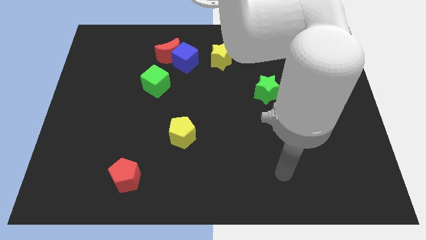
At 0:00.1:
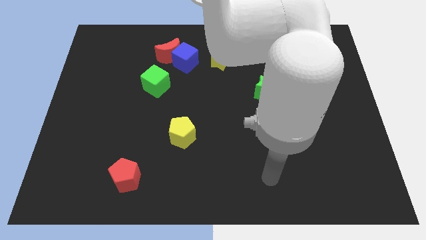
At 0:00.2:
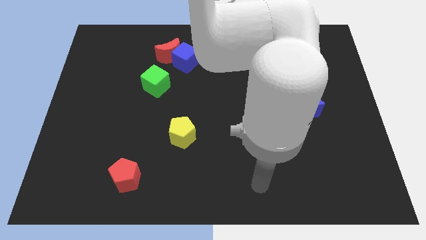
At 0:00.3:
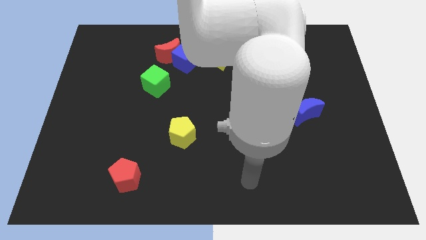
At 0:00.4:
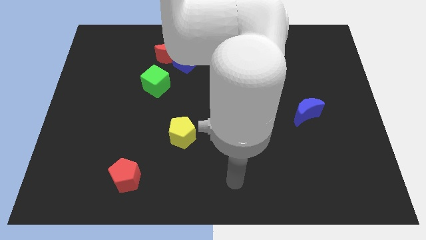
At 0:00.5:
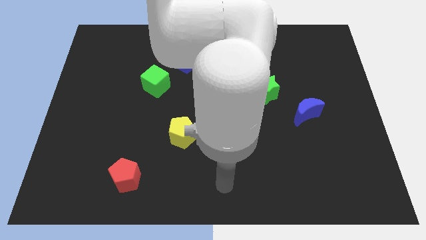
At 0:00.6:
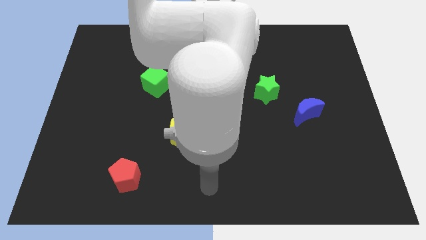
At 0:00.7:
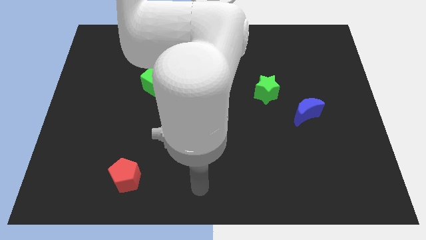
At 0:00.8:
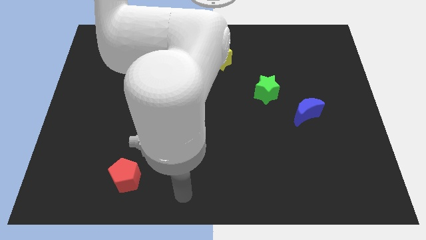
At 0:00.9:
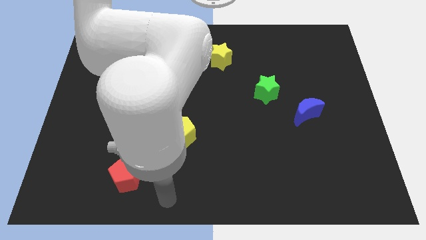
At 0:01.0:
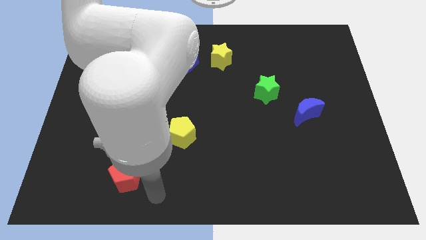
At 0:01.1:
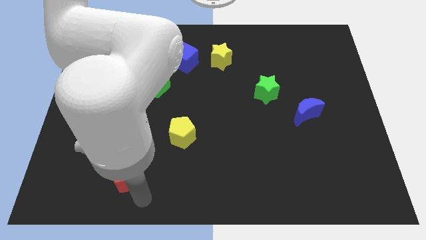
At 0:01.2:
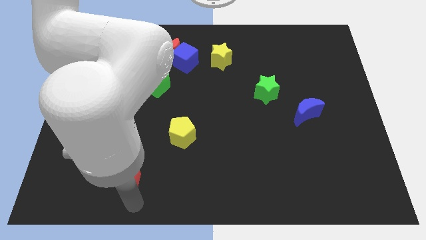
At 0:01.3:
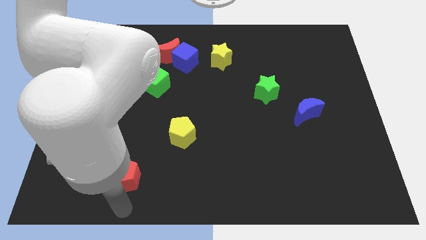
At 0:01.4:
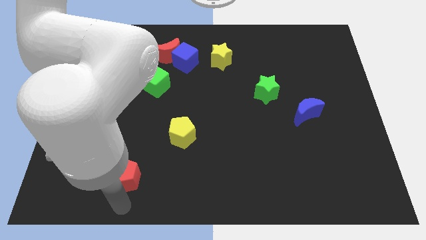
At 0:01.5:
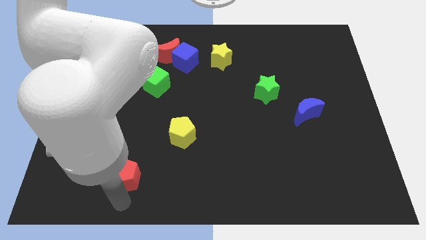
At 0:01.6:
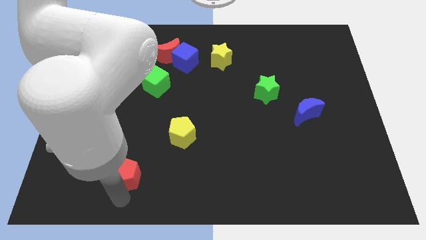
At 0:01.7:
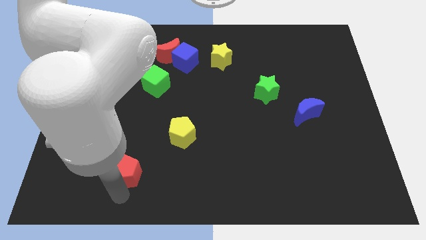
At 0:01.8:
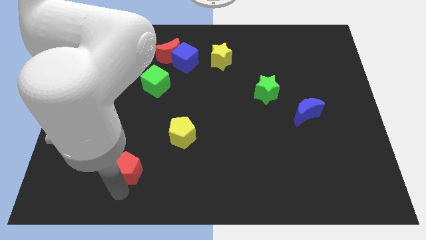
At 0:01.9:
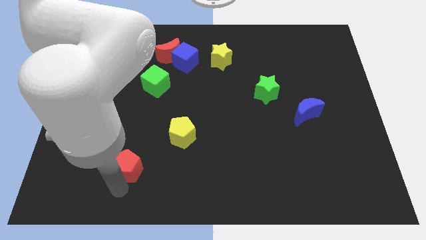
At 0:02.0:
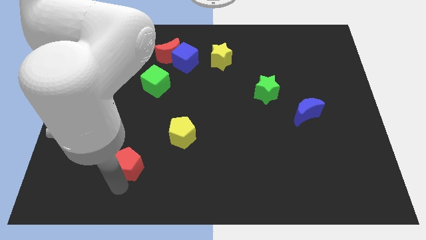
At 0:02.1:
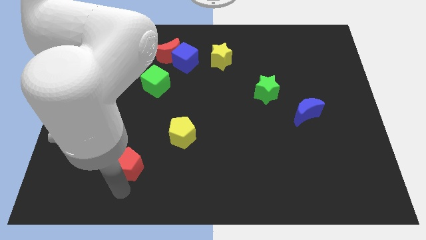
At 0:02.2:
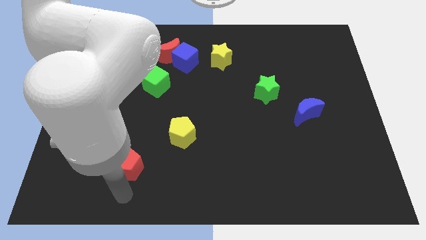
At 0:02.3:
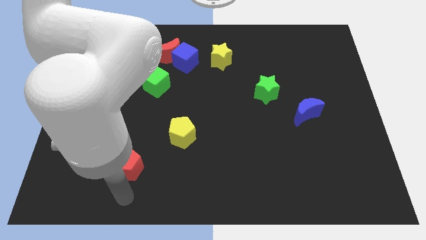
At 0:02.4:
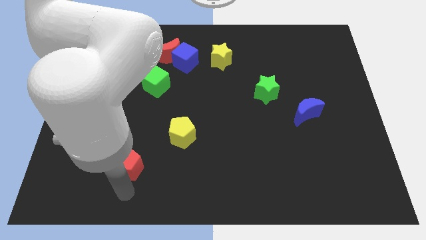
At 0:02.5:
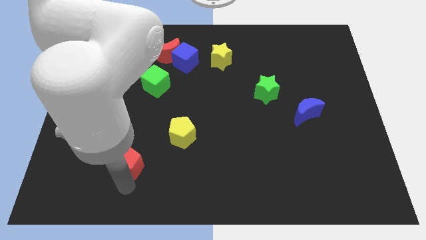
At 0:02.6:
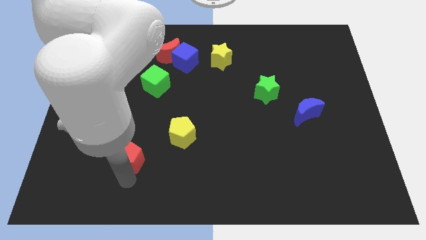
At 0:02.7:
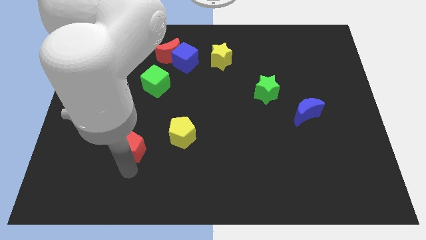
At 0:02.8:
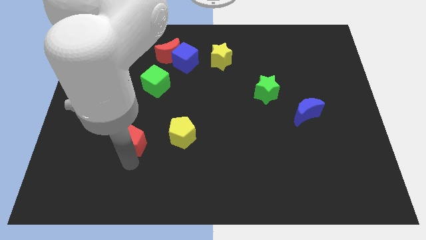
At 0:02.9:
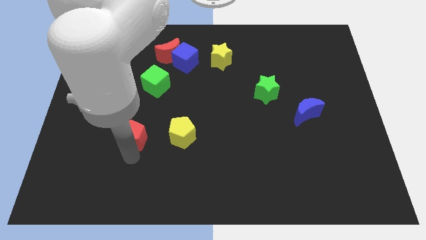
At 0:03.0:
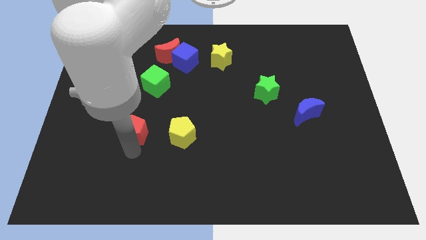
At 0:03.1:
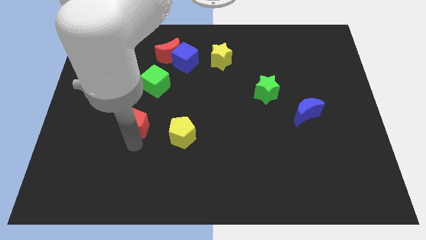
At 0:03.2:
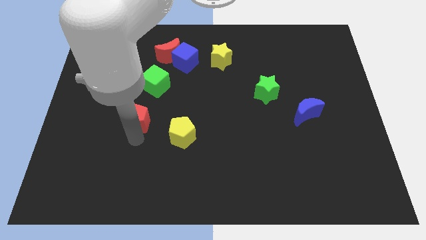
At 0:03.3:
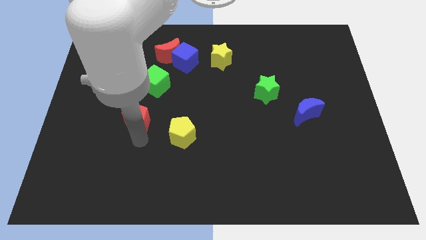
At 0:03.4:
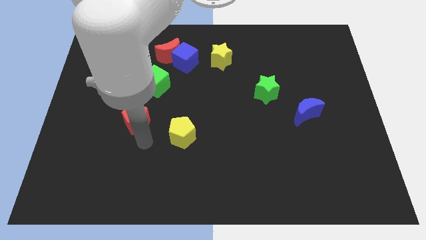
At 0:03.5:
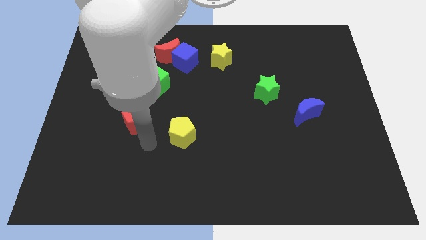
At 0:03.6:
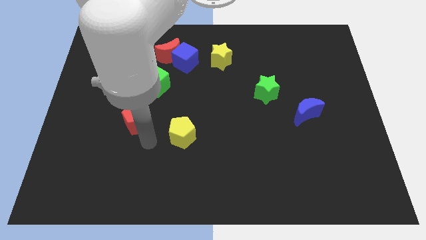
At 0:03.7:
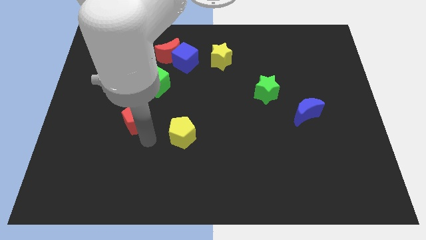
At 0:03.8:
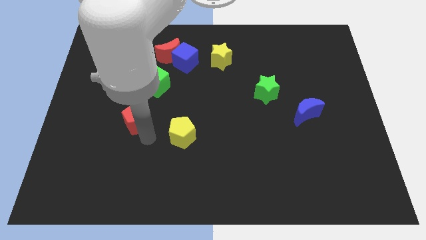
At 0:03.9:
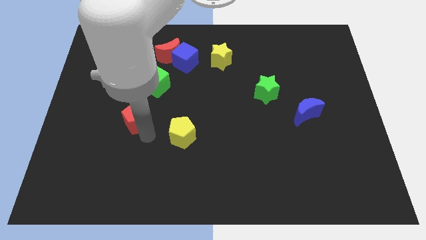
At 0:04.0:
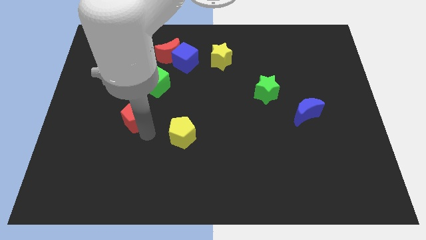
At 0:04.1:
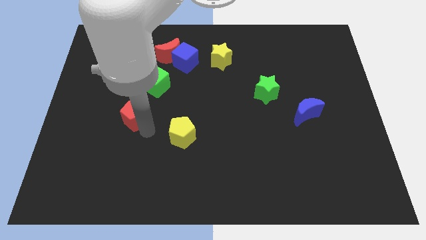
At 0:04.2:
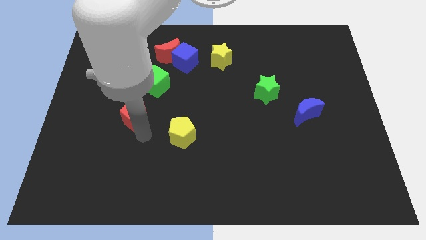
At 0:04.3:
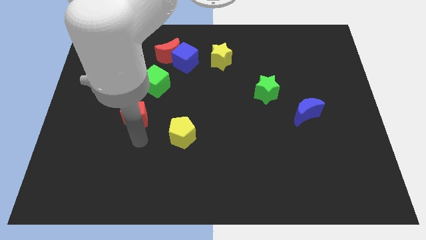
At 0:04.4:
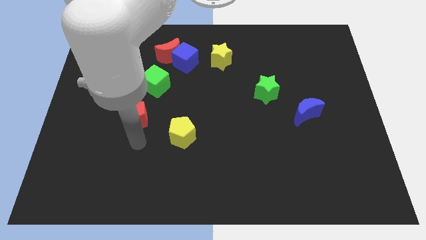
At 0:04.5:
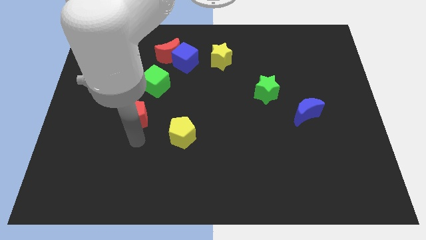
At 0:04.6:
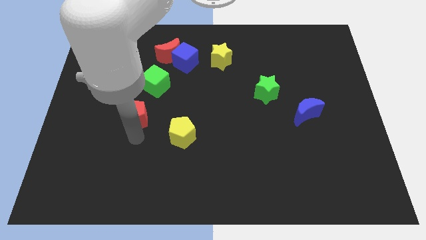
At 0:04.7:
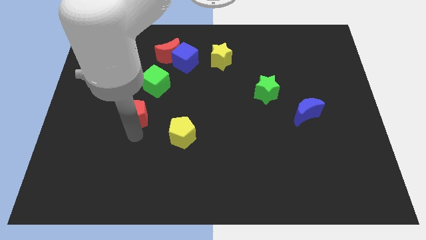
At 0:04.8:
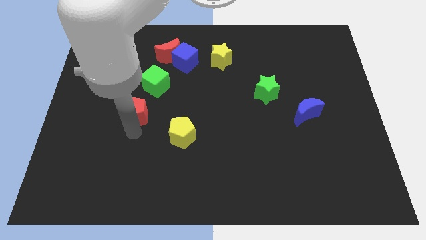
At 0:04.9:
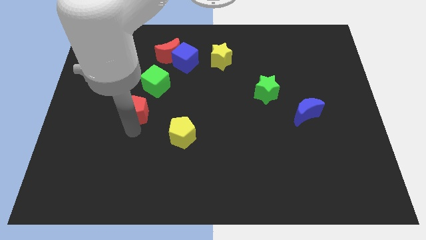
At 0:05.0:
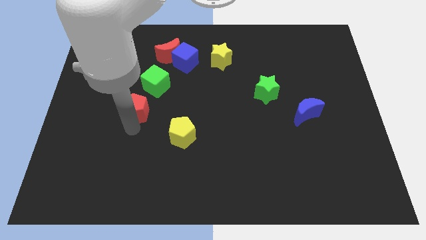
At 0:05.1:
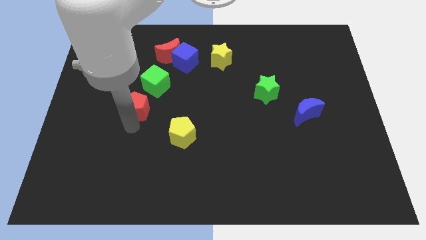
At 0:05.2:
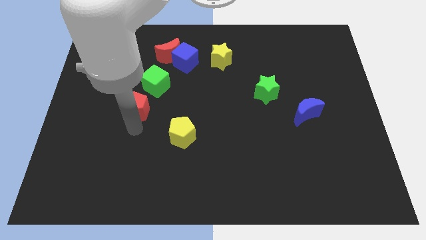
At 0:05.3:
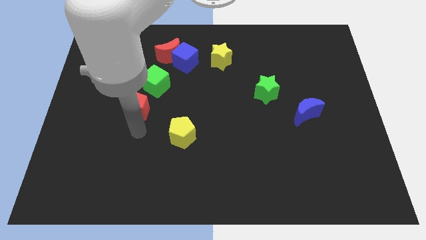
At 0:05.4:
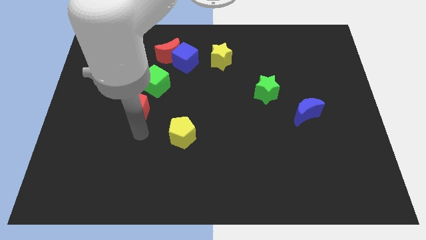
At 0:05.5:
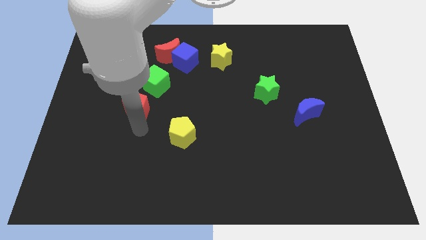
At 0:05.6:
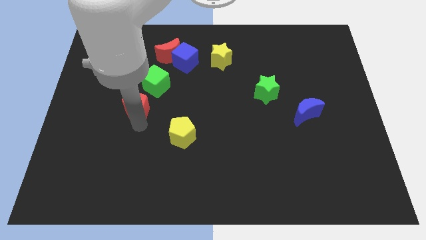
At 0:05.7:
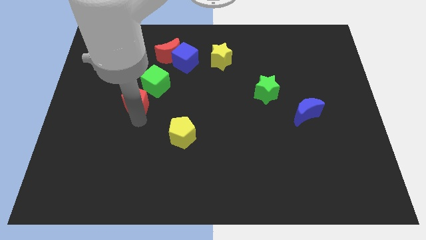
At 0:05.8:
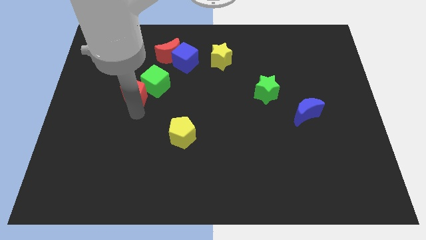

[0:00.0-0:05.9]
slide the red pentagon upwards

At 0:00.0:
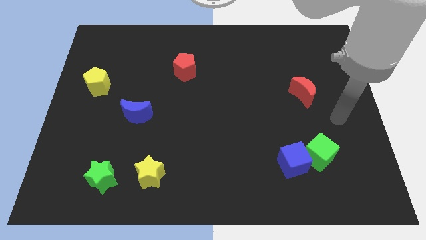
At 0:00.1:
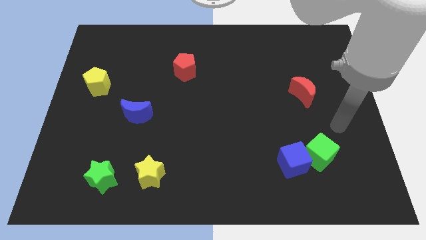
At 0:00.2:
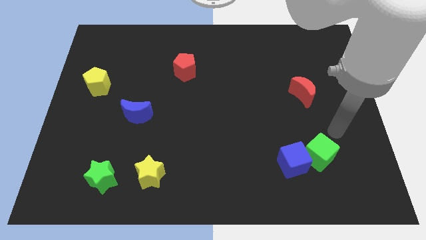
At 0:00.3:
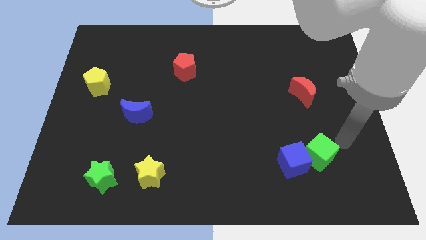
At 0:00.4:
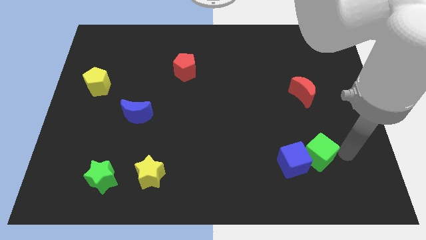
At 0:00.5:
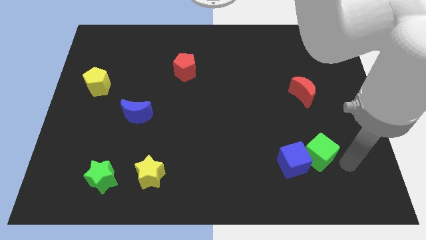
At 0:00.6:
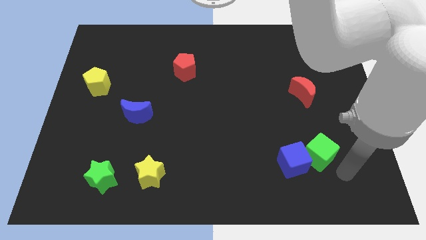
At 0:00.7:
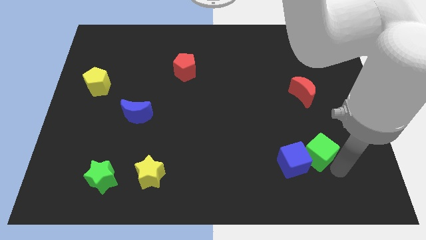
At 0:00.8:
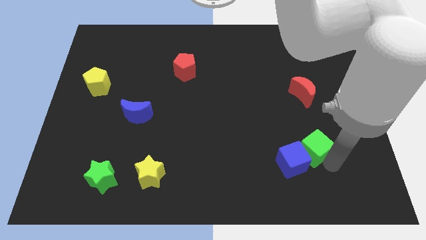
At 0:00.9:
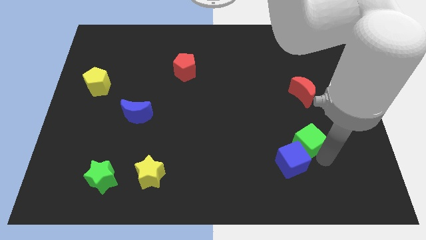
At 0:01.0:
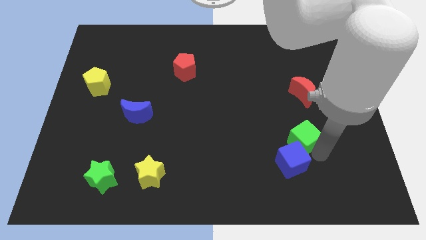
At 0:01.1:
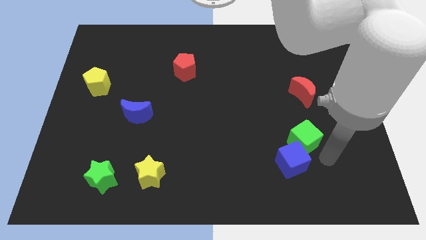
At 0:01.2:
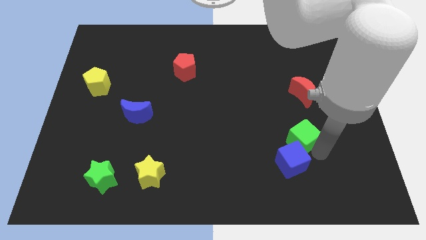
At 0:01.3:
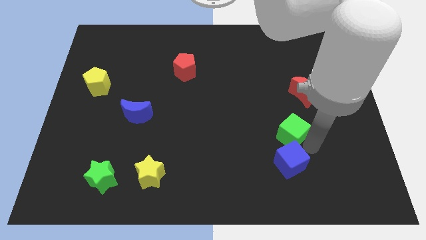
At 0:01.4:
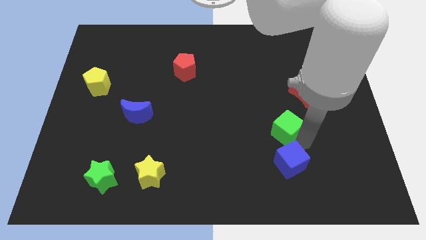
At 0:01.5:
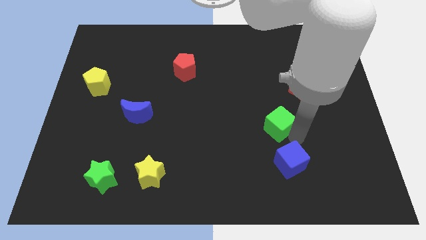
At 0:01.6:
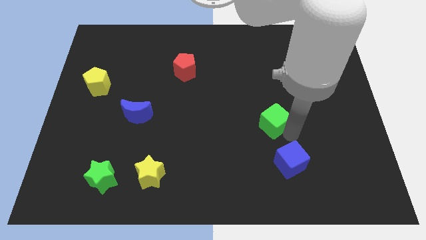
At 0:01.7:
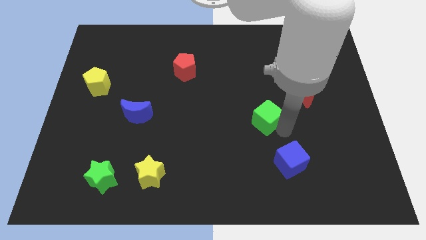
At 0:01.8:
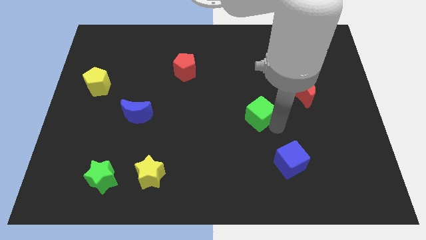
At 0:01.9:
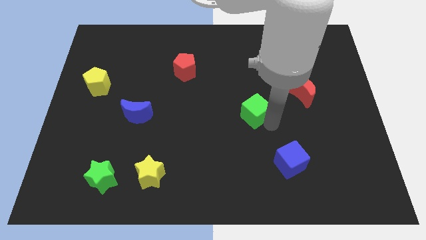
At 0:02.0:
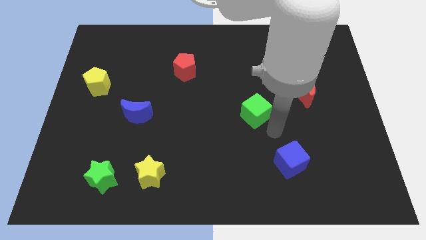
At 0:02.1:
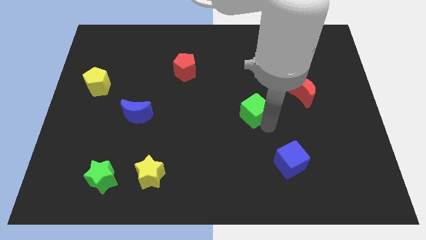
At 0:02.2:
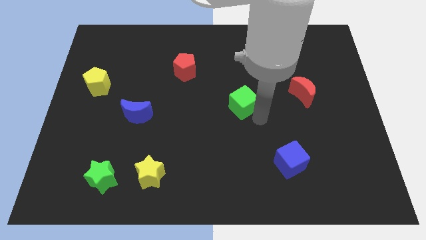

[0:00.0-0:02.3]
slide the green cube diagonally up and left
